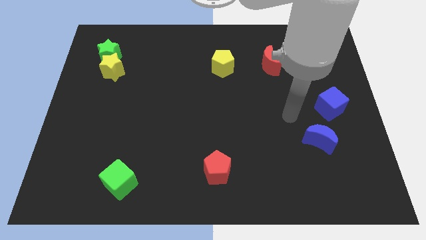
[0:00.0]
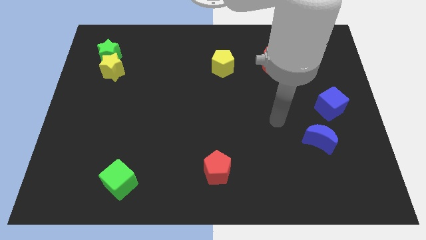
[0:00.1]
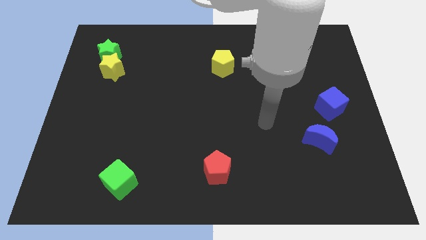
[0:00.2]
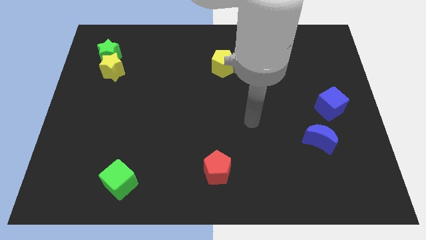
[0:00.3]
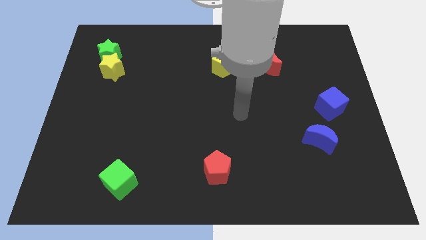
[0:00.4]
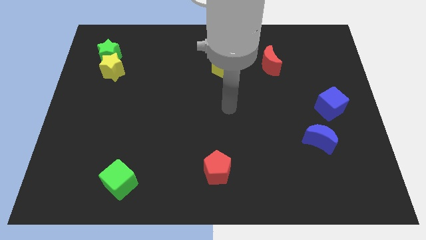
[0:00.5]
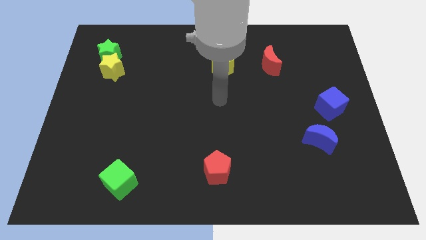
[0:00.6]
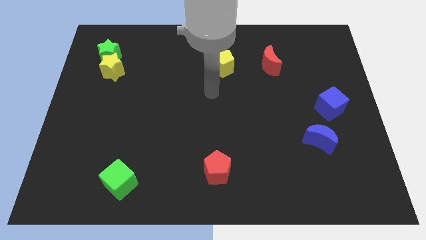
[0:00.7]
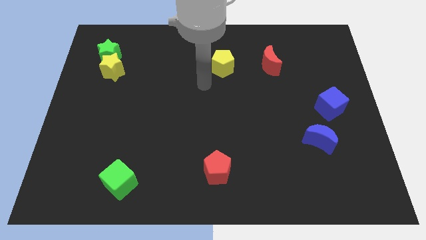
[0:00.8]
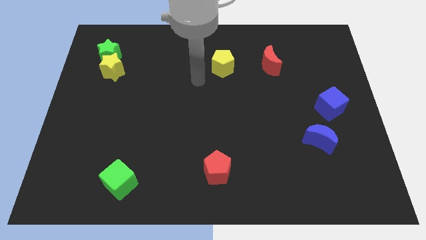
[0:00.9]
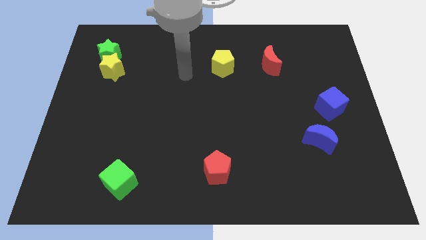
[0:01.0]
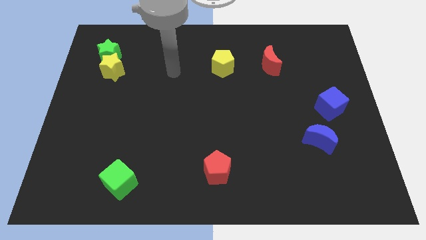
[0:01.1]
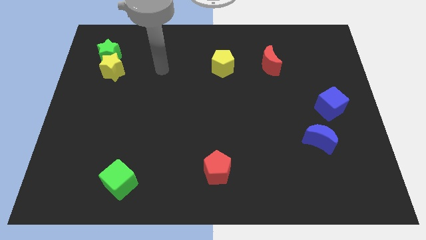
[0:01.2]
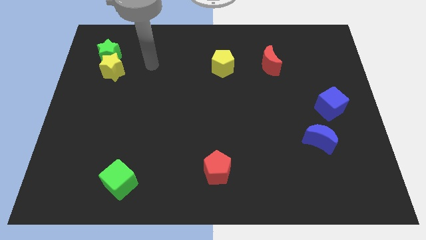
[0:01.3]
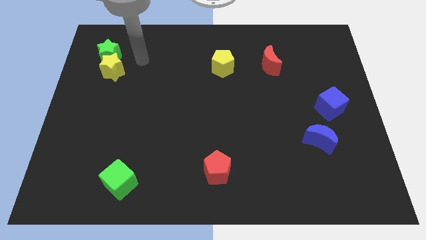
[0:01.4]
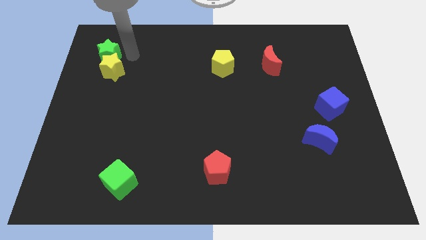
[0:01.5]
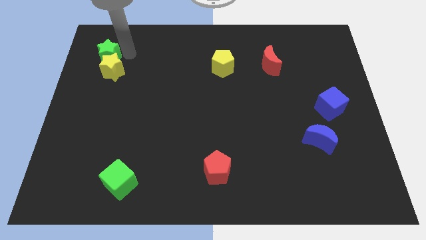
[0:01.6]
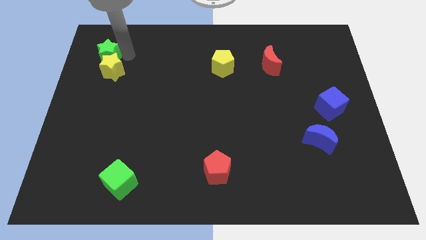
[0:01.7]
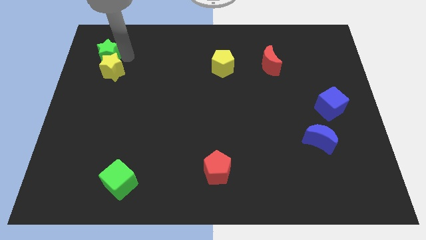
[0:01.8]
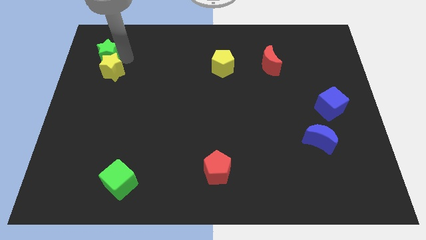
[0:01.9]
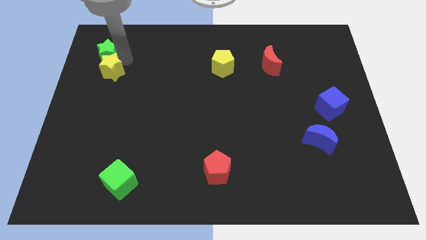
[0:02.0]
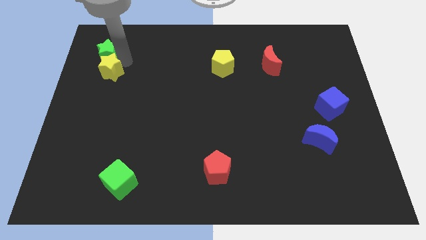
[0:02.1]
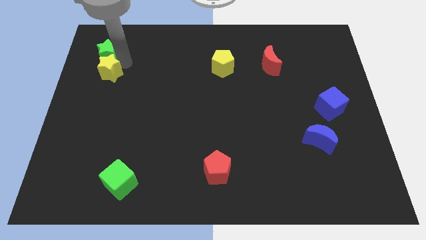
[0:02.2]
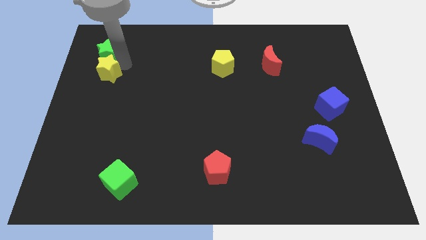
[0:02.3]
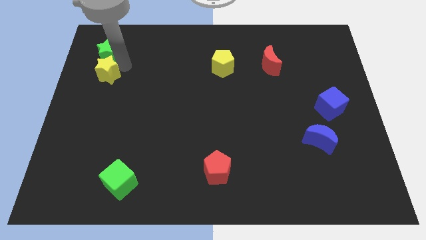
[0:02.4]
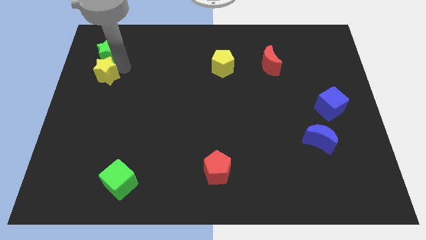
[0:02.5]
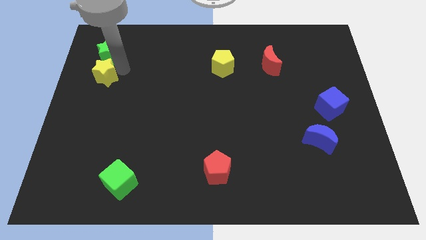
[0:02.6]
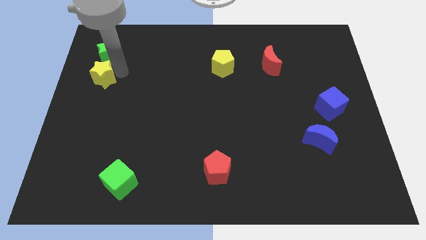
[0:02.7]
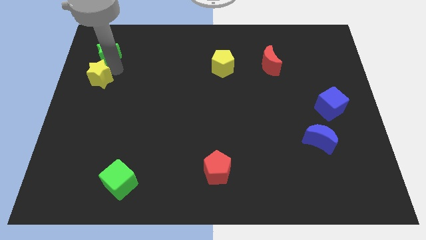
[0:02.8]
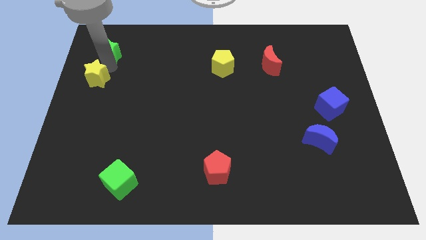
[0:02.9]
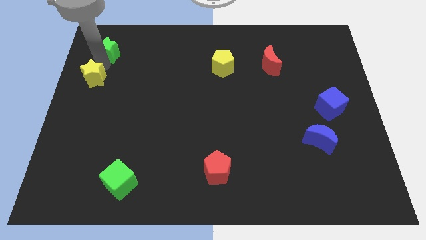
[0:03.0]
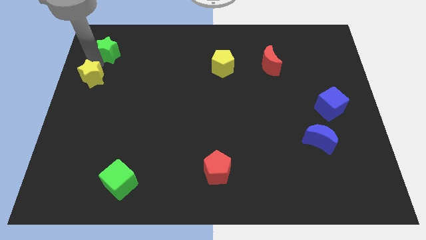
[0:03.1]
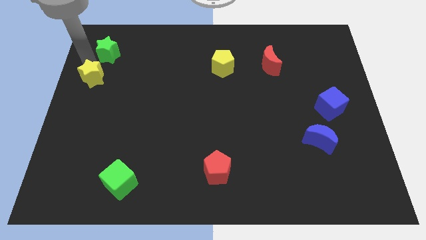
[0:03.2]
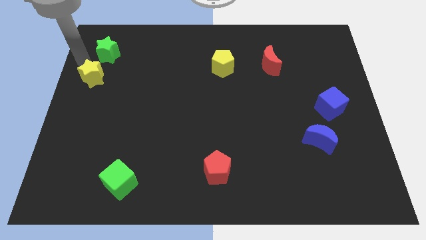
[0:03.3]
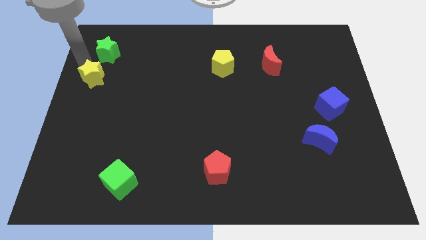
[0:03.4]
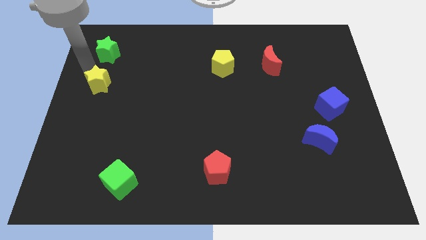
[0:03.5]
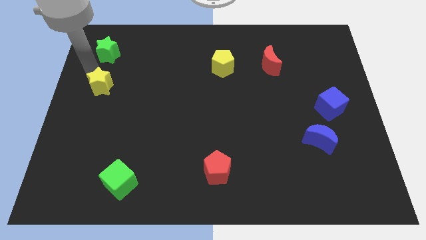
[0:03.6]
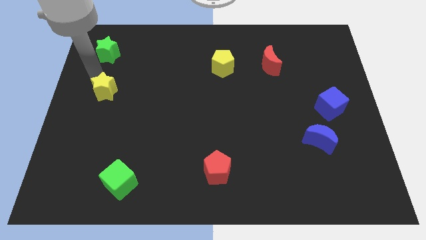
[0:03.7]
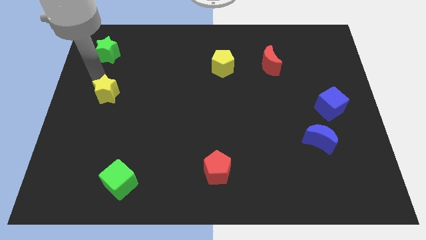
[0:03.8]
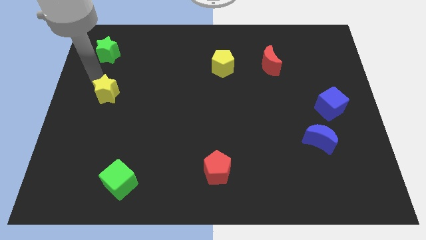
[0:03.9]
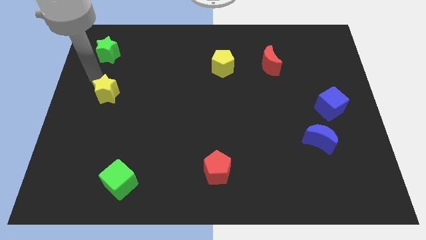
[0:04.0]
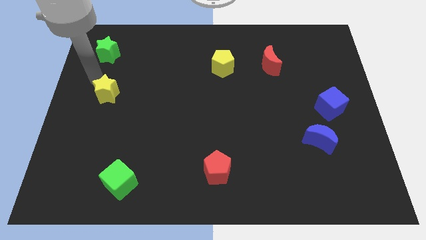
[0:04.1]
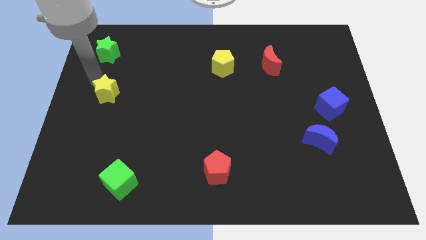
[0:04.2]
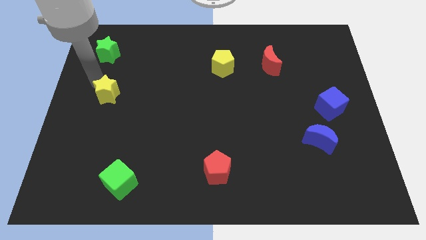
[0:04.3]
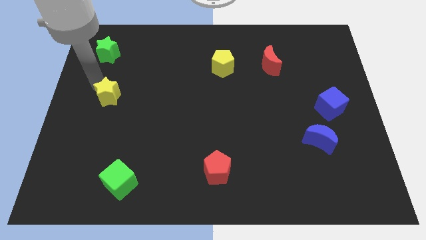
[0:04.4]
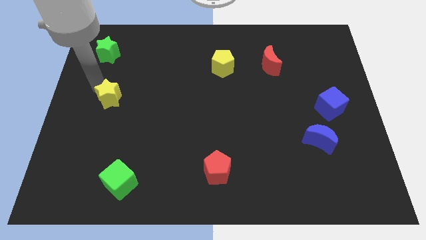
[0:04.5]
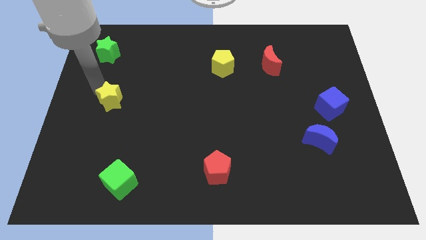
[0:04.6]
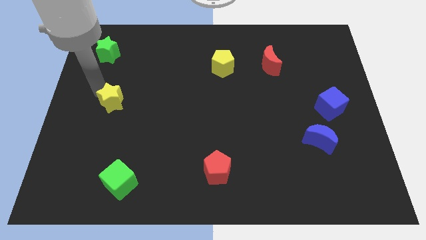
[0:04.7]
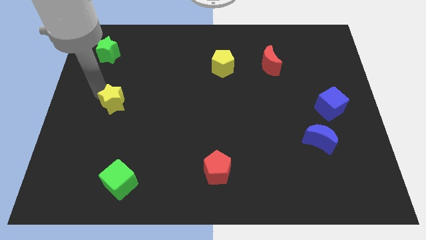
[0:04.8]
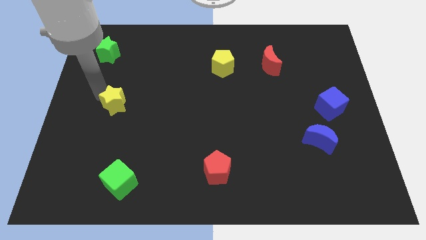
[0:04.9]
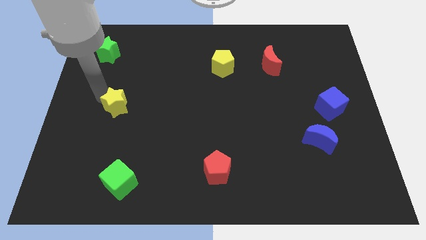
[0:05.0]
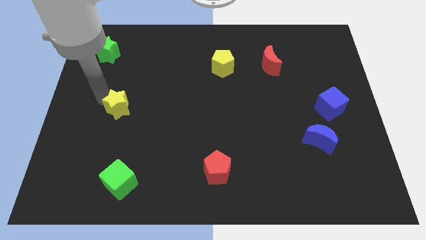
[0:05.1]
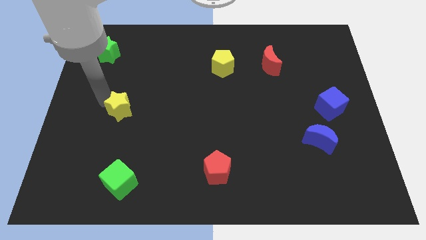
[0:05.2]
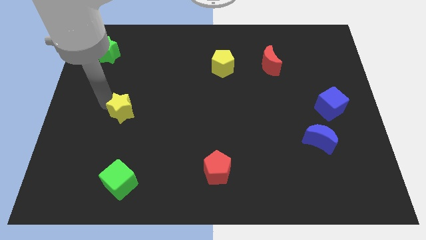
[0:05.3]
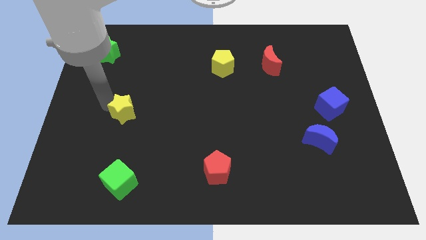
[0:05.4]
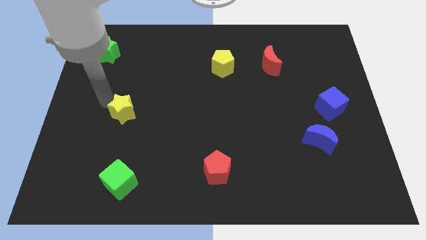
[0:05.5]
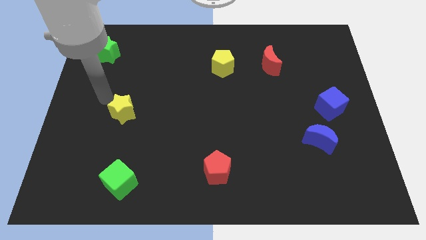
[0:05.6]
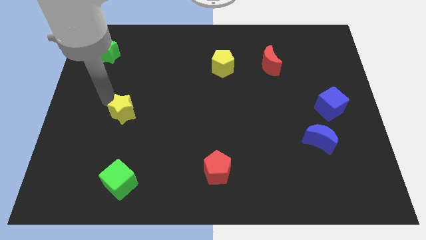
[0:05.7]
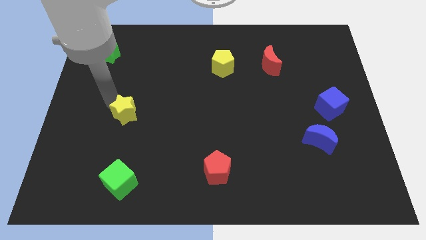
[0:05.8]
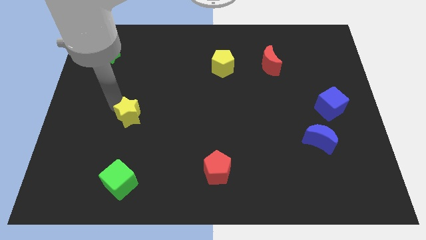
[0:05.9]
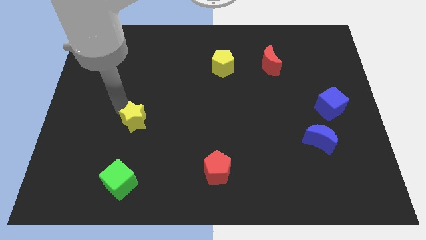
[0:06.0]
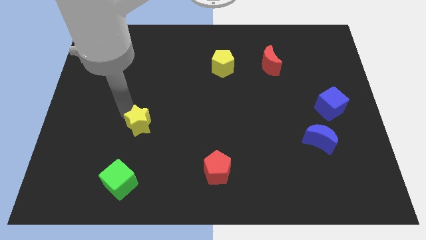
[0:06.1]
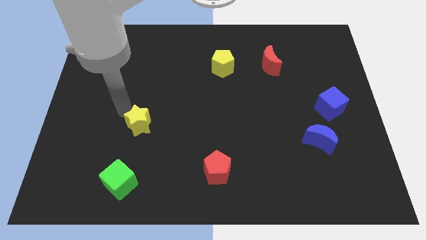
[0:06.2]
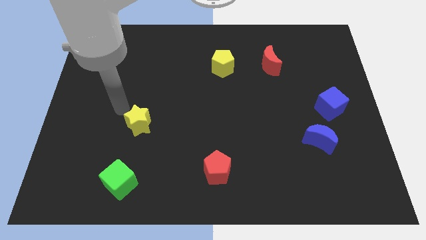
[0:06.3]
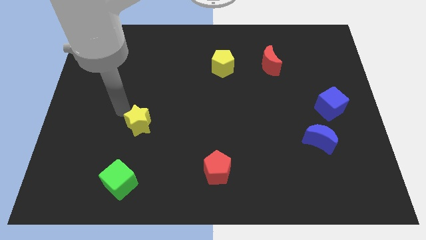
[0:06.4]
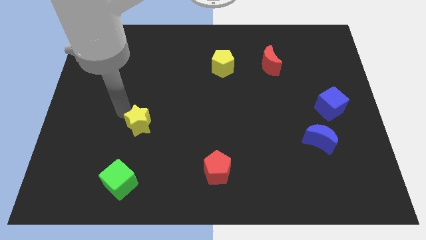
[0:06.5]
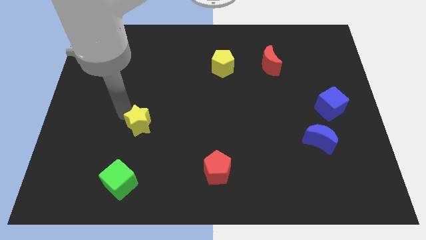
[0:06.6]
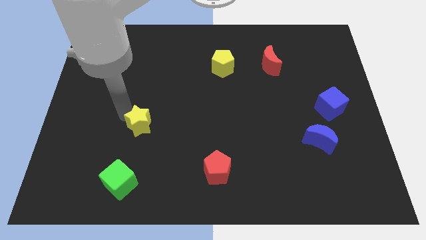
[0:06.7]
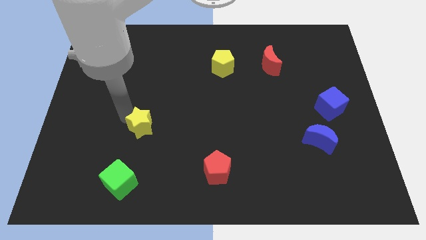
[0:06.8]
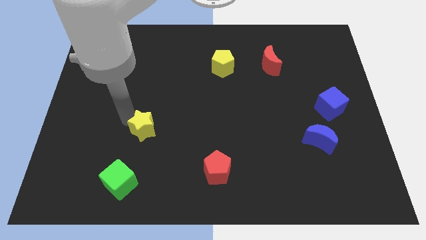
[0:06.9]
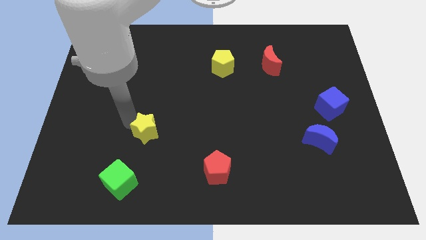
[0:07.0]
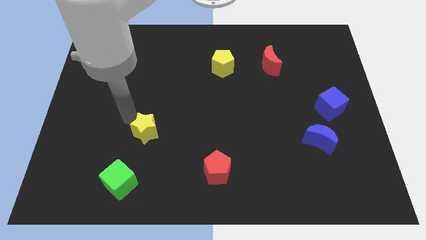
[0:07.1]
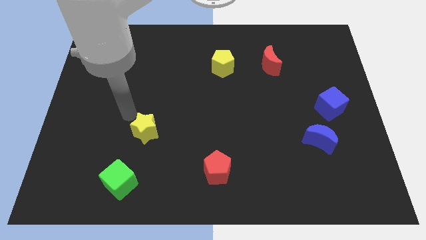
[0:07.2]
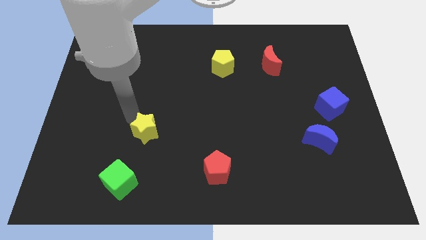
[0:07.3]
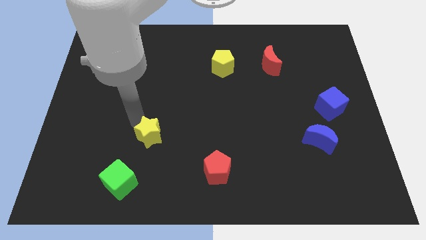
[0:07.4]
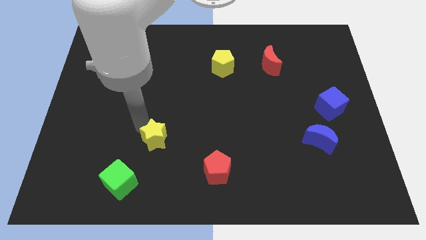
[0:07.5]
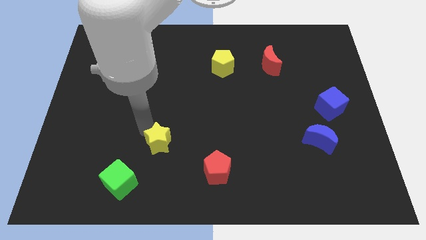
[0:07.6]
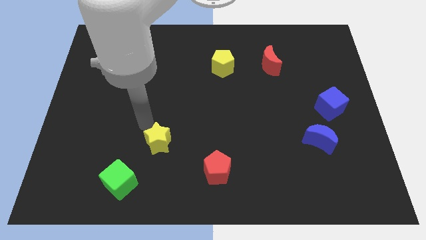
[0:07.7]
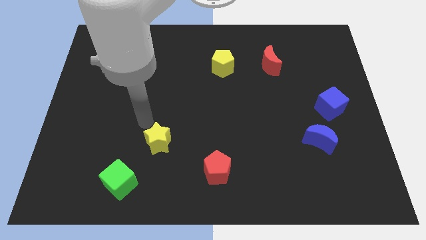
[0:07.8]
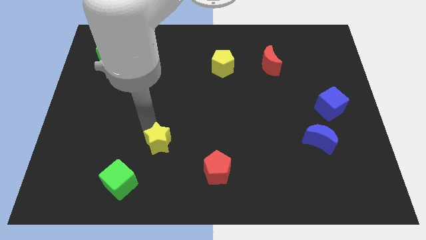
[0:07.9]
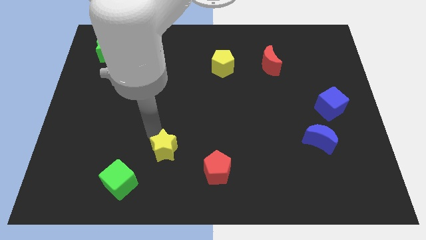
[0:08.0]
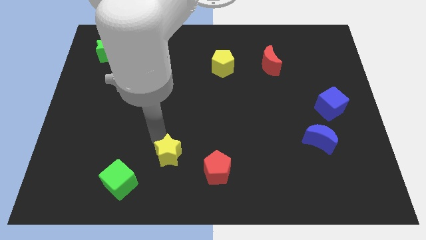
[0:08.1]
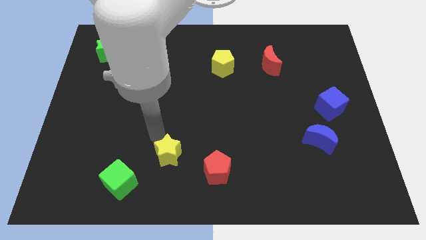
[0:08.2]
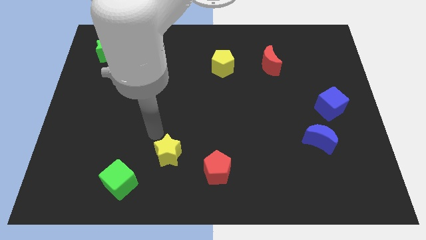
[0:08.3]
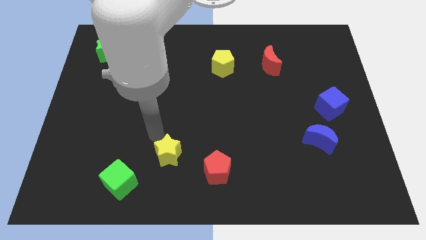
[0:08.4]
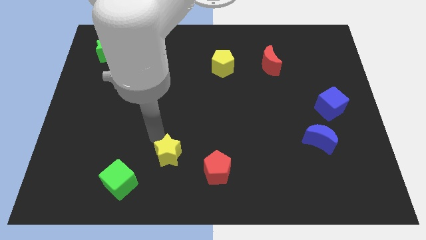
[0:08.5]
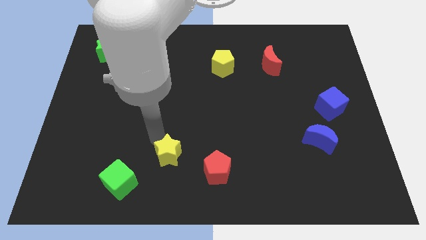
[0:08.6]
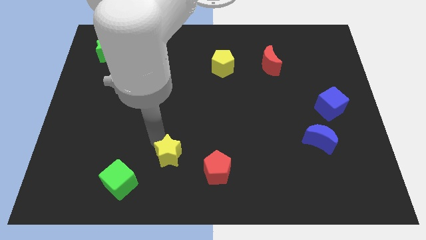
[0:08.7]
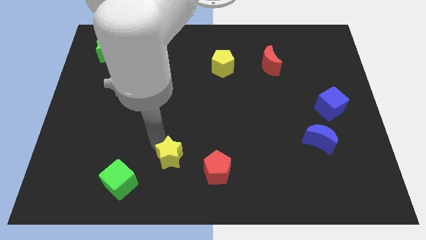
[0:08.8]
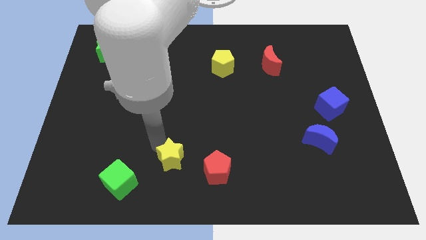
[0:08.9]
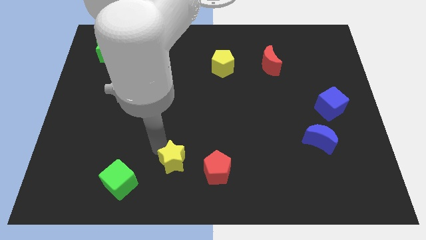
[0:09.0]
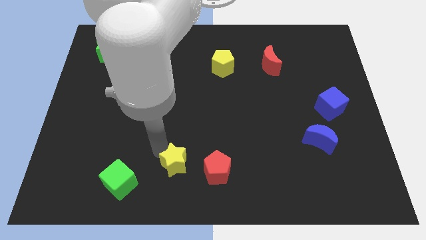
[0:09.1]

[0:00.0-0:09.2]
slide the yellow star to the bottom
